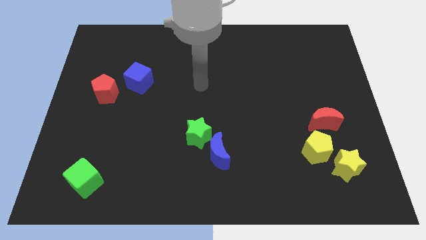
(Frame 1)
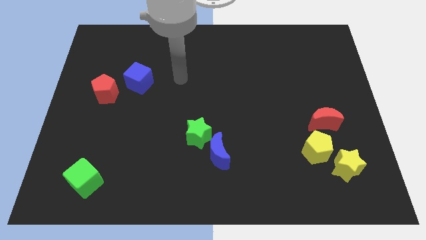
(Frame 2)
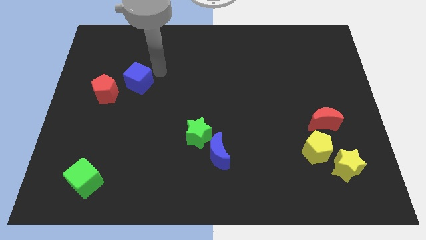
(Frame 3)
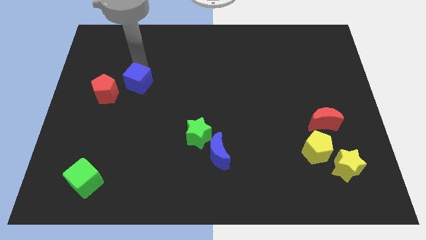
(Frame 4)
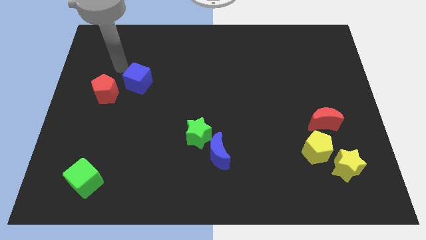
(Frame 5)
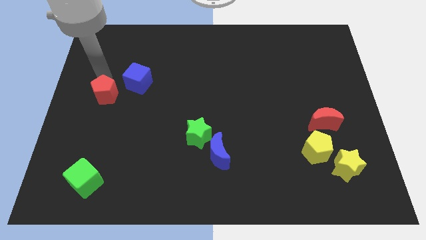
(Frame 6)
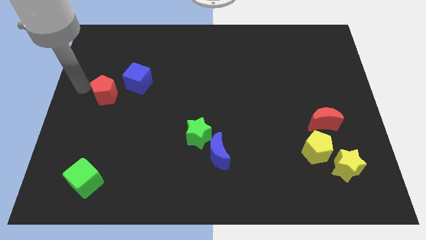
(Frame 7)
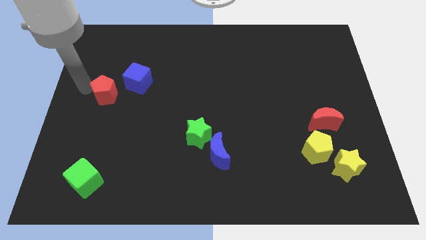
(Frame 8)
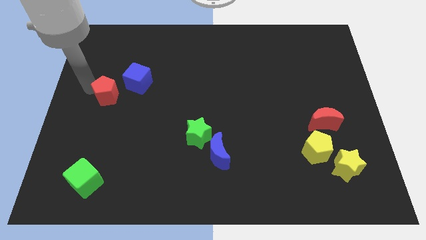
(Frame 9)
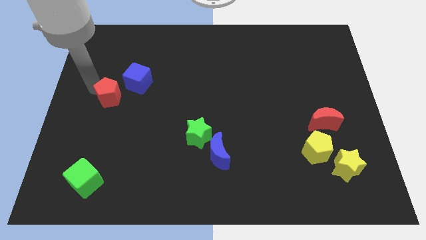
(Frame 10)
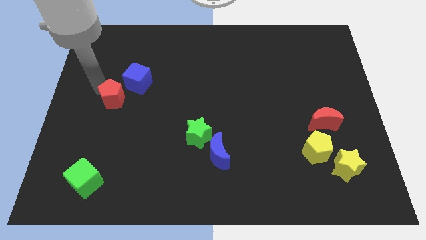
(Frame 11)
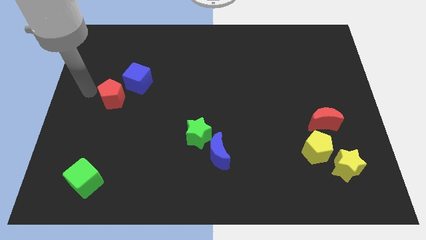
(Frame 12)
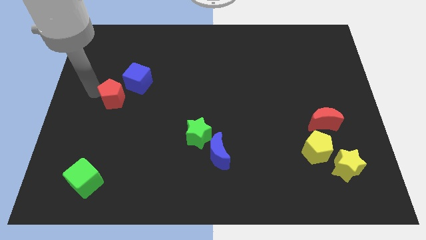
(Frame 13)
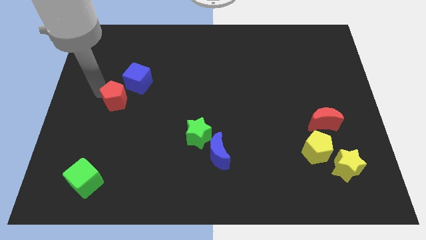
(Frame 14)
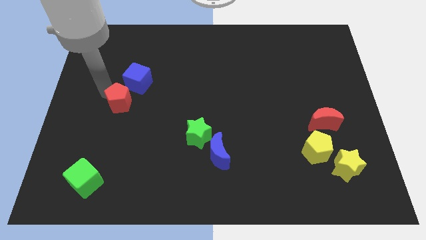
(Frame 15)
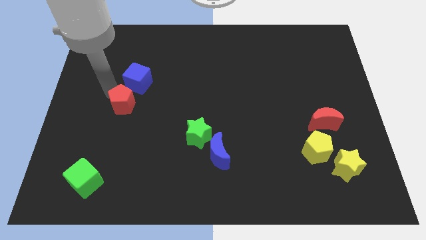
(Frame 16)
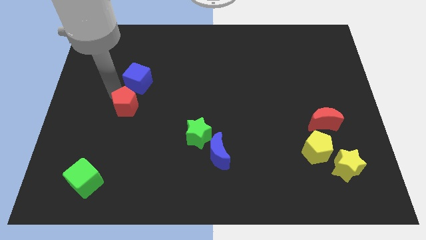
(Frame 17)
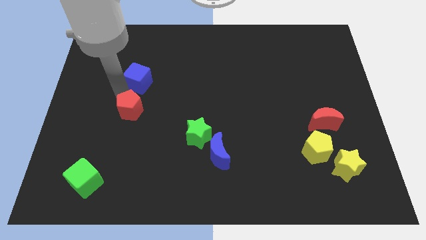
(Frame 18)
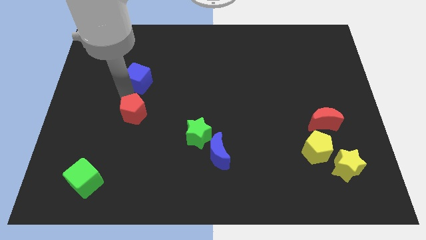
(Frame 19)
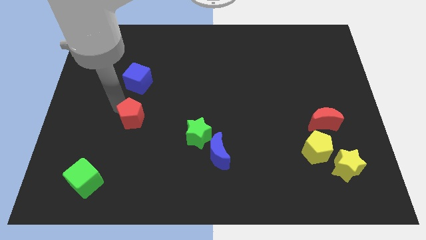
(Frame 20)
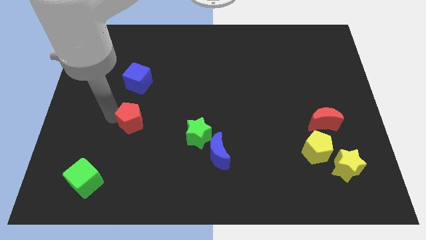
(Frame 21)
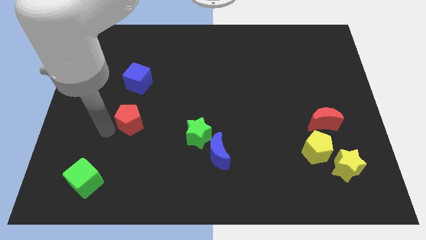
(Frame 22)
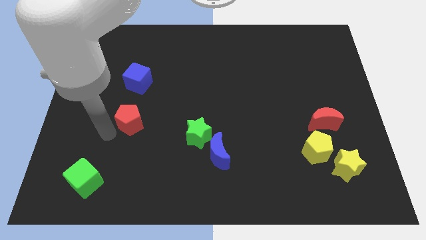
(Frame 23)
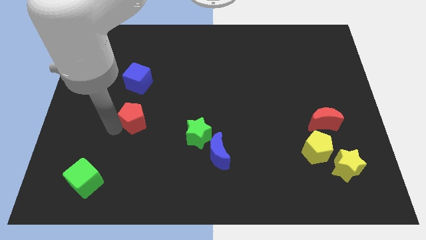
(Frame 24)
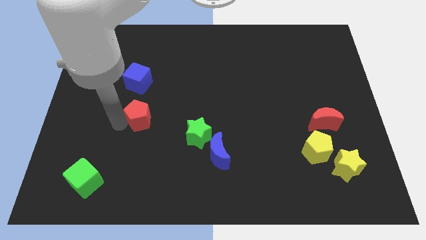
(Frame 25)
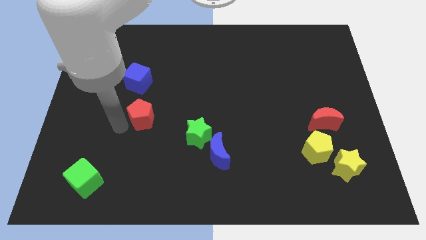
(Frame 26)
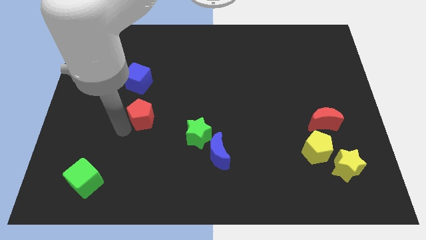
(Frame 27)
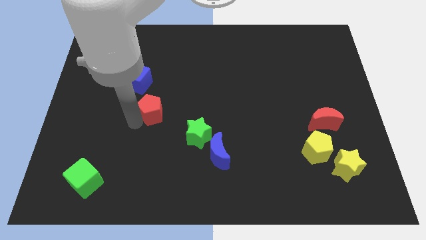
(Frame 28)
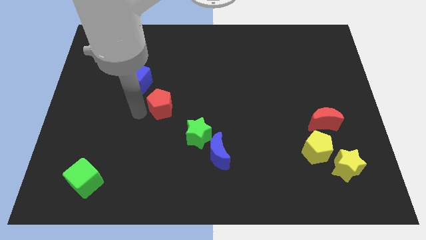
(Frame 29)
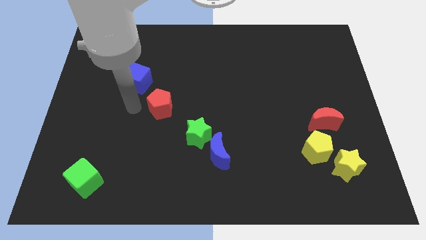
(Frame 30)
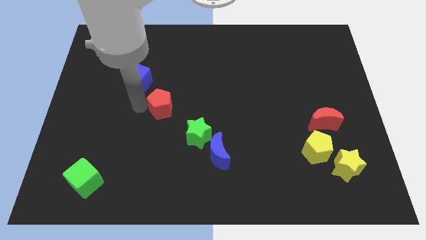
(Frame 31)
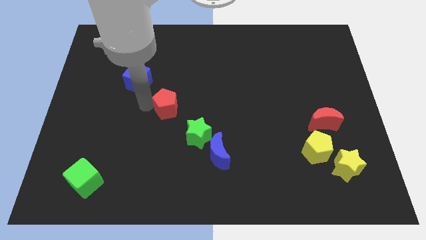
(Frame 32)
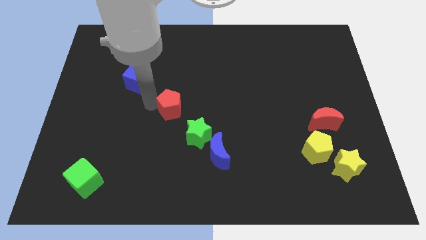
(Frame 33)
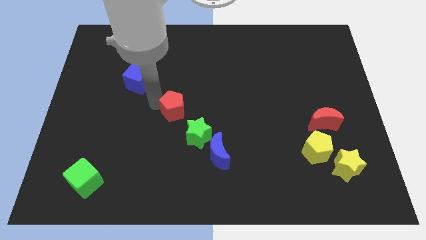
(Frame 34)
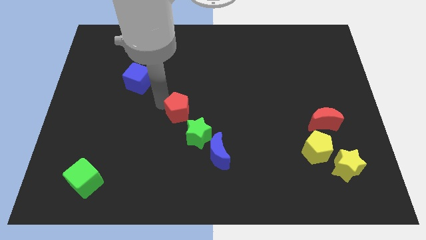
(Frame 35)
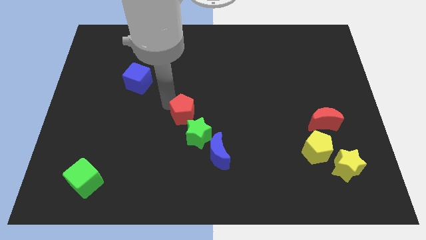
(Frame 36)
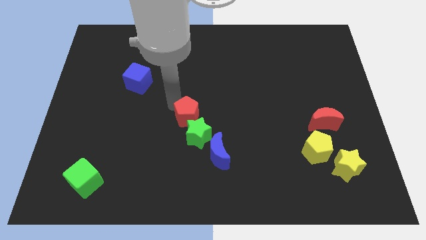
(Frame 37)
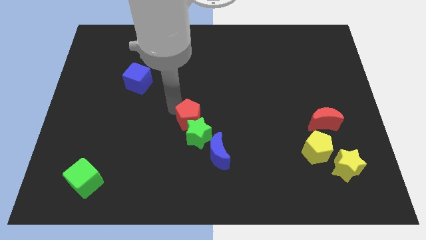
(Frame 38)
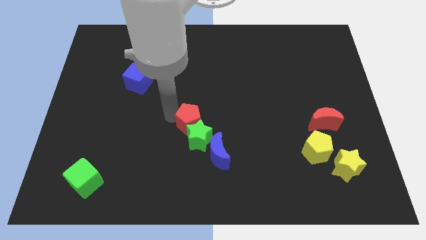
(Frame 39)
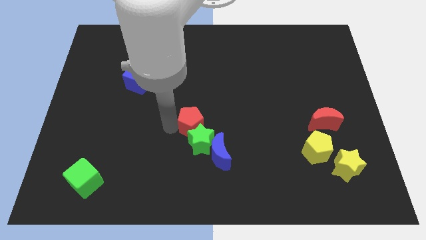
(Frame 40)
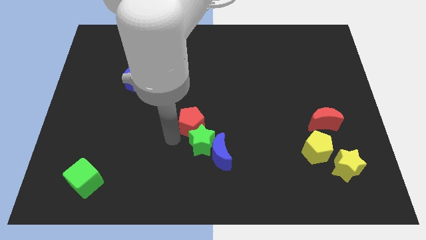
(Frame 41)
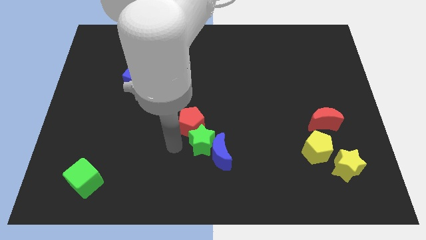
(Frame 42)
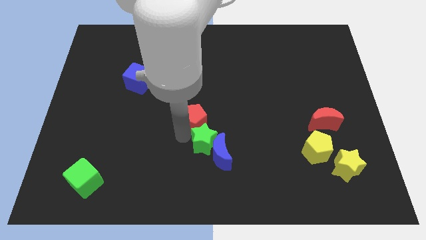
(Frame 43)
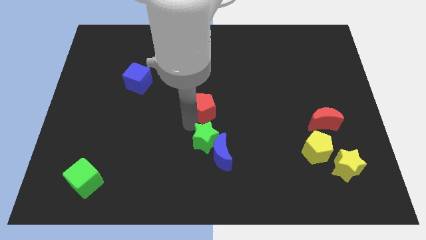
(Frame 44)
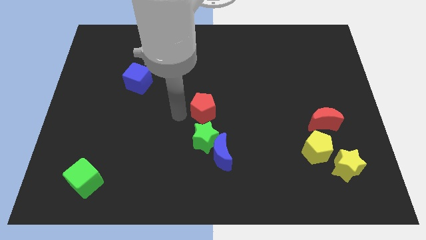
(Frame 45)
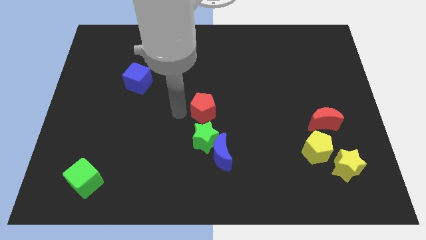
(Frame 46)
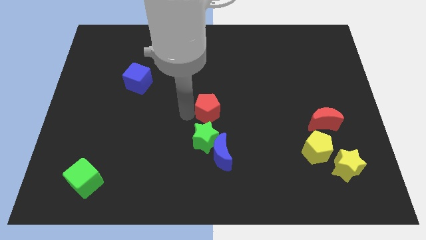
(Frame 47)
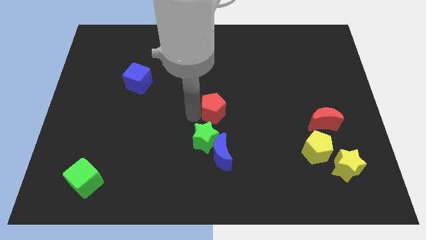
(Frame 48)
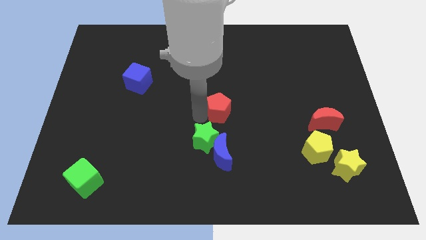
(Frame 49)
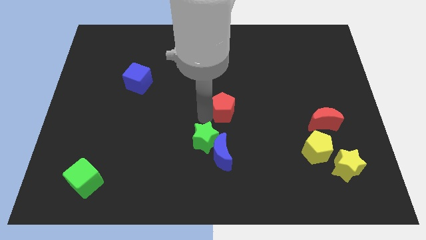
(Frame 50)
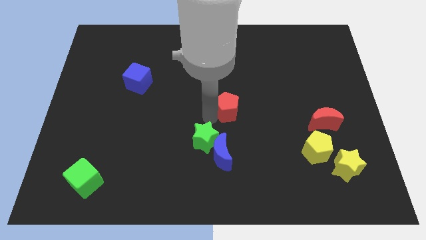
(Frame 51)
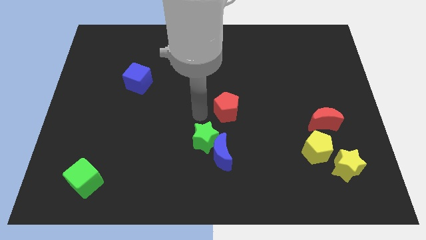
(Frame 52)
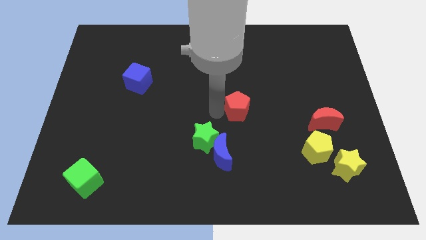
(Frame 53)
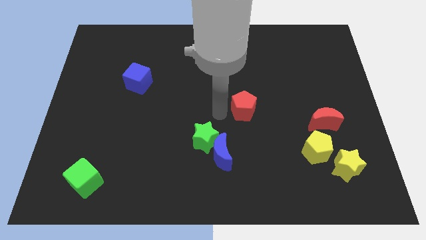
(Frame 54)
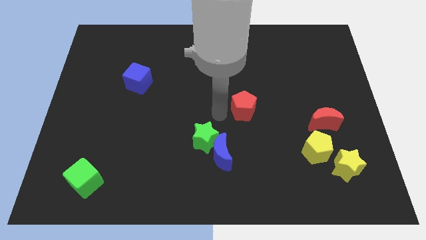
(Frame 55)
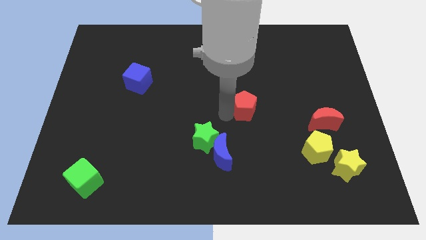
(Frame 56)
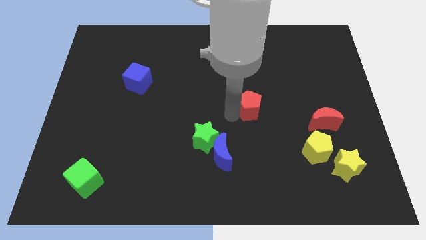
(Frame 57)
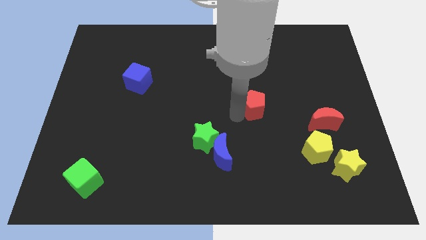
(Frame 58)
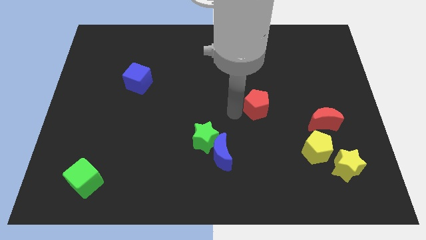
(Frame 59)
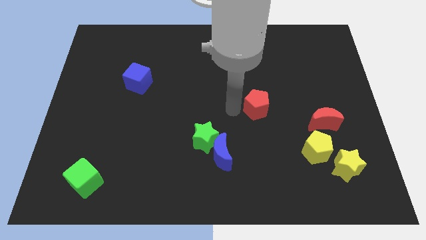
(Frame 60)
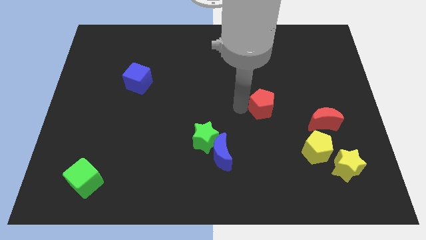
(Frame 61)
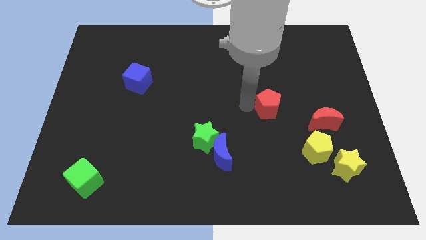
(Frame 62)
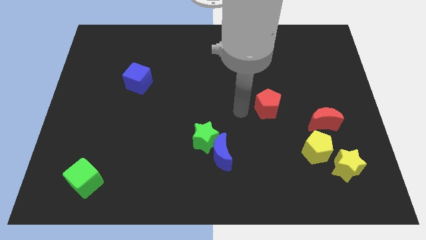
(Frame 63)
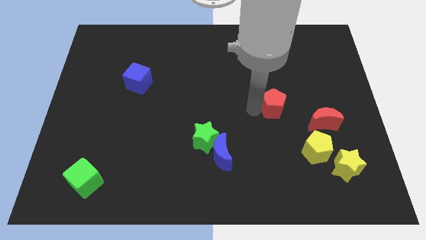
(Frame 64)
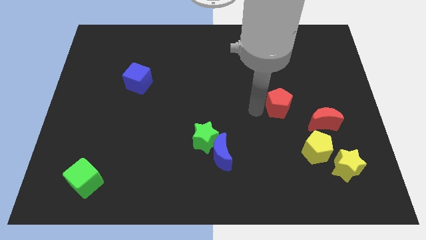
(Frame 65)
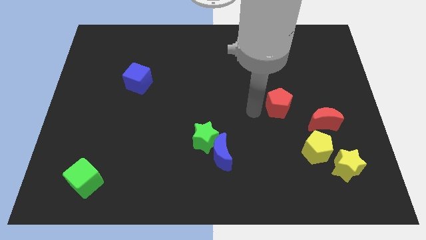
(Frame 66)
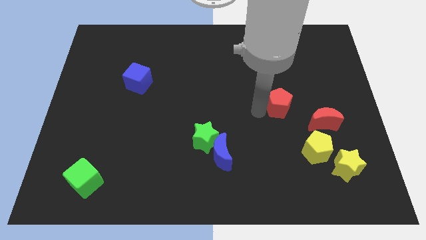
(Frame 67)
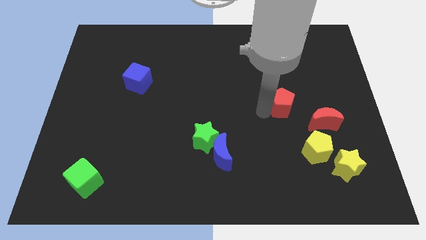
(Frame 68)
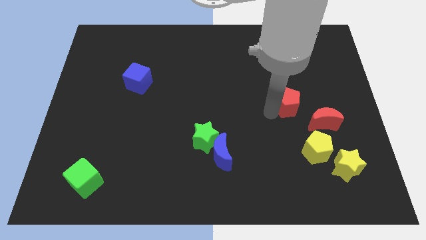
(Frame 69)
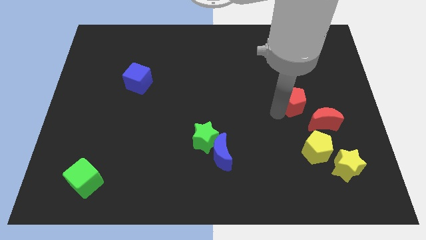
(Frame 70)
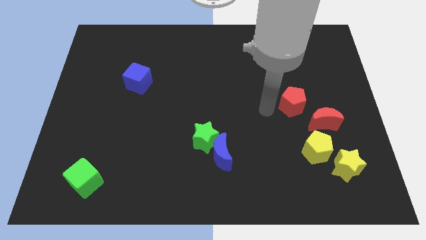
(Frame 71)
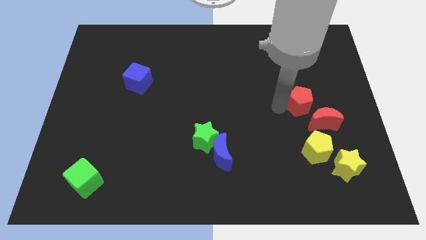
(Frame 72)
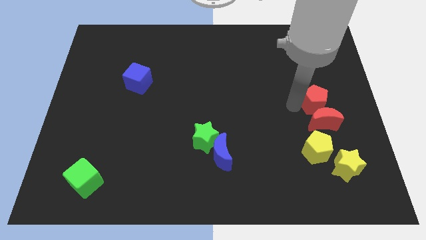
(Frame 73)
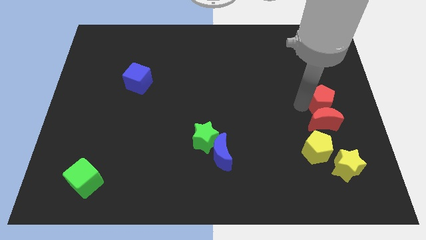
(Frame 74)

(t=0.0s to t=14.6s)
slide the red pentagon to the center right
